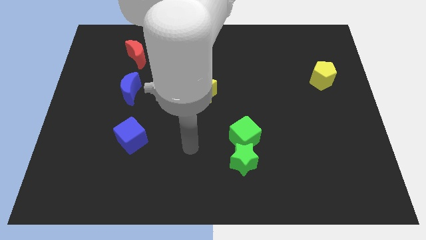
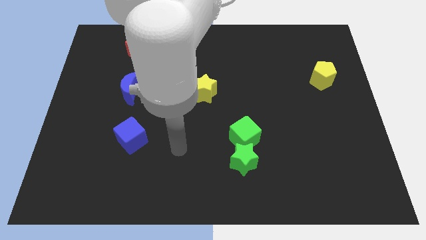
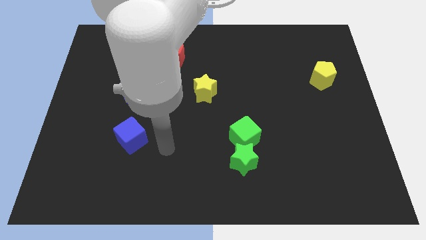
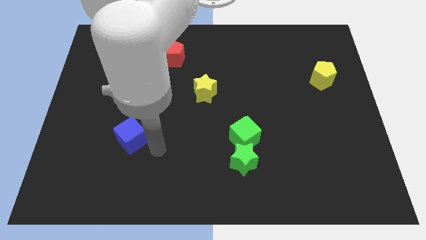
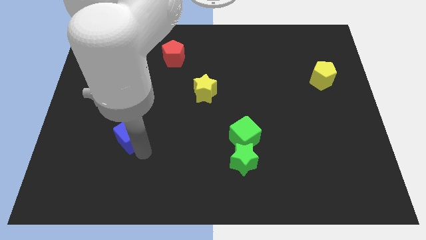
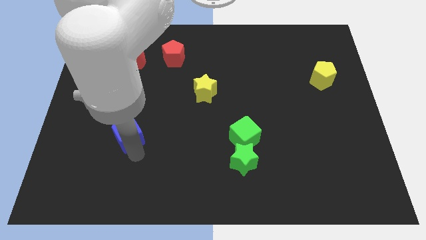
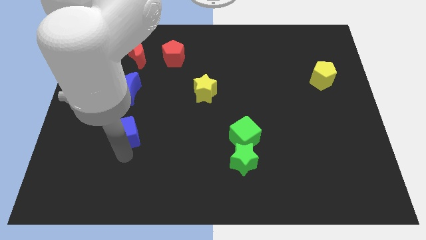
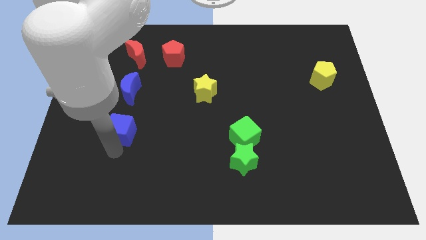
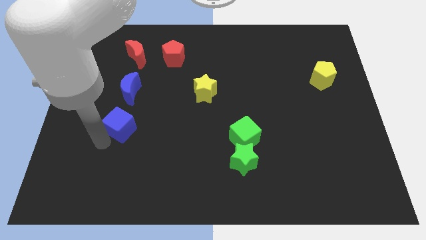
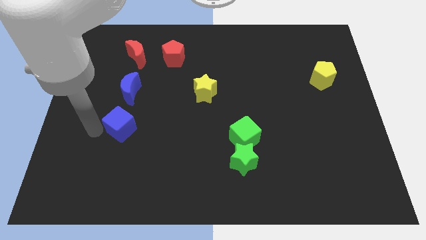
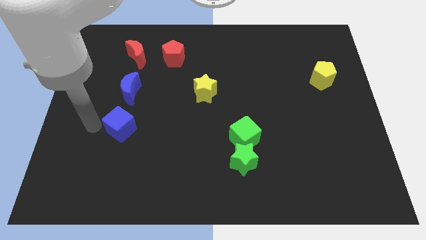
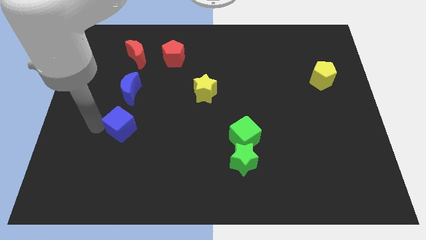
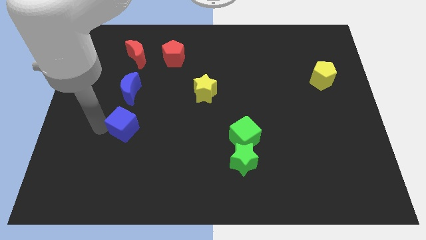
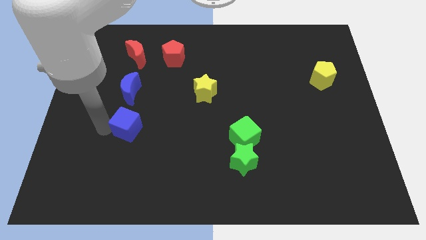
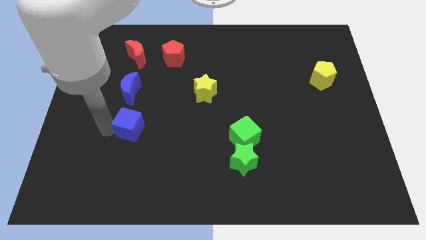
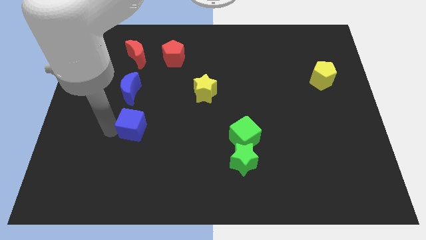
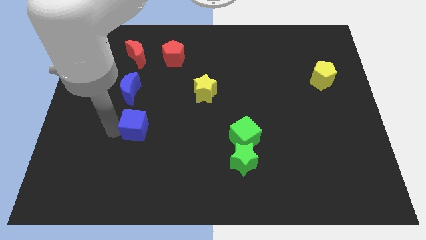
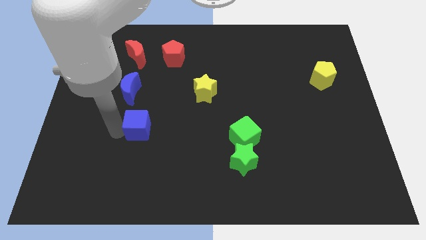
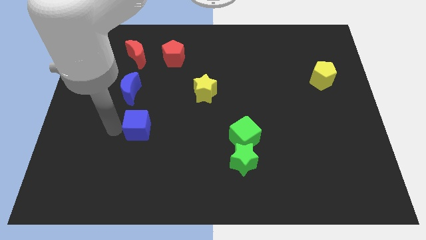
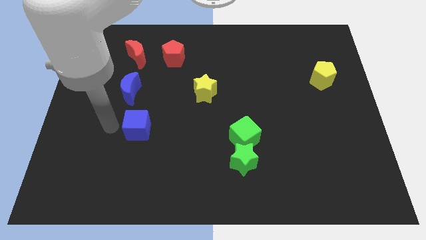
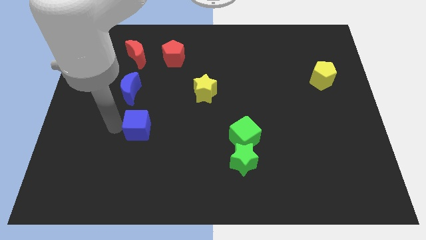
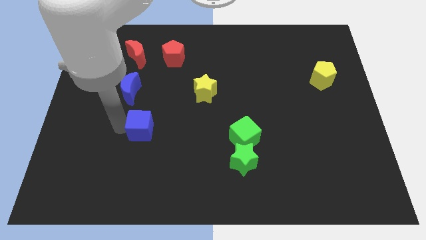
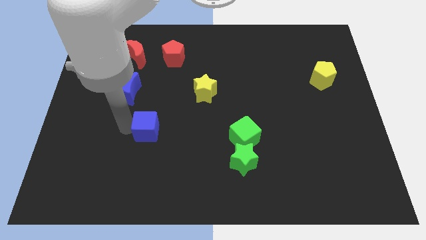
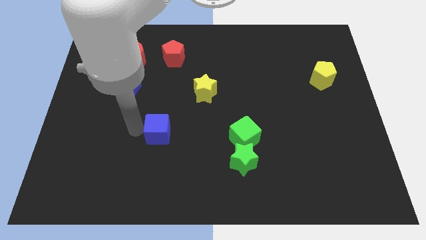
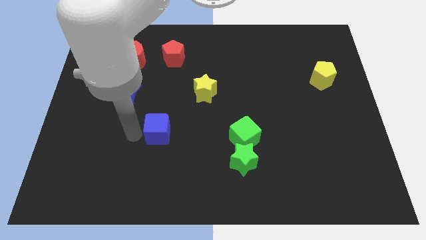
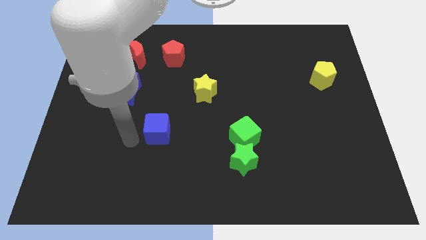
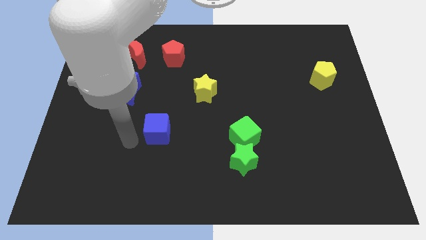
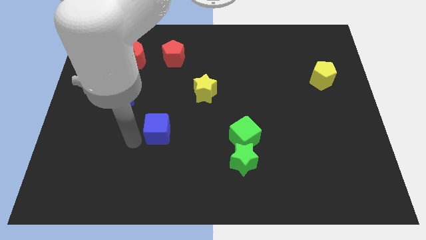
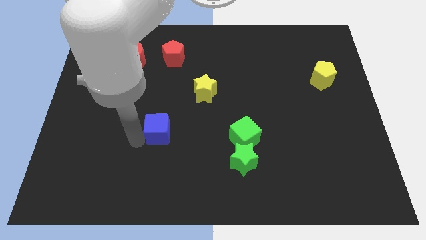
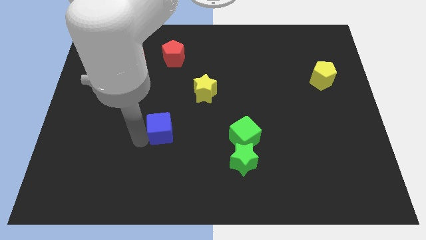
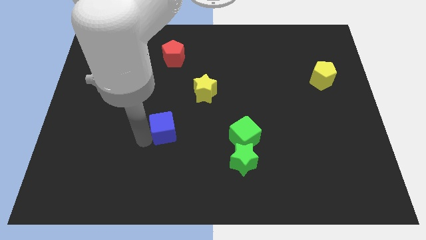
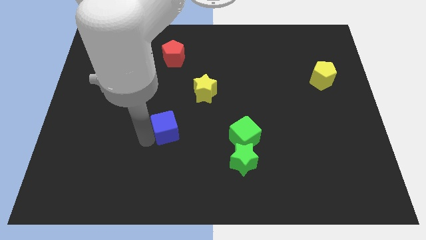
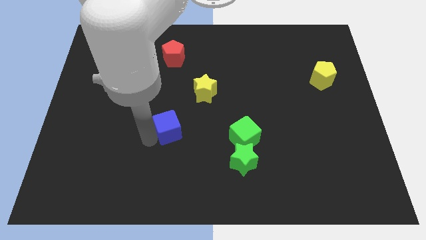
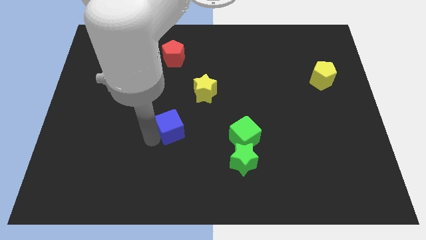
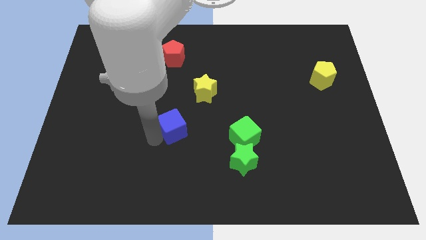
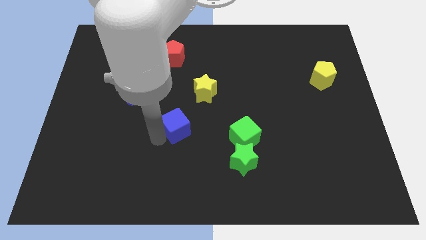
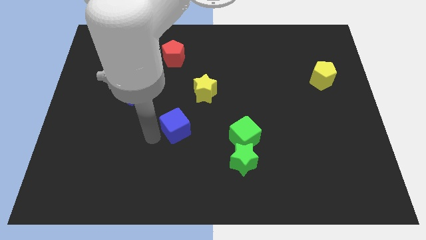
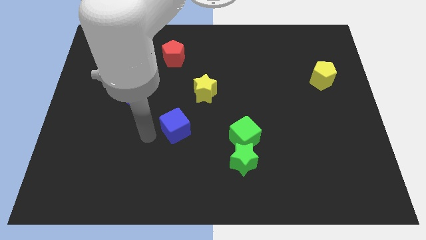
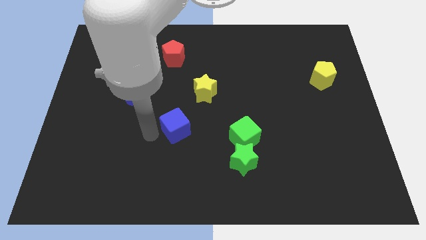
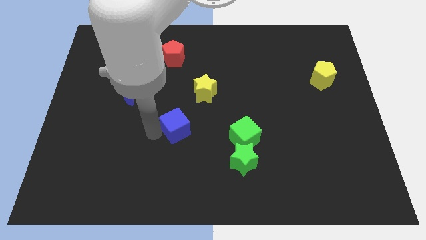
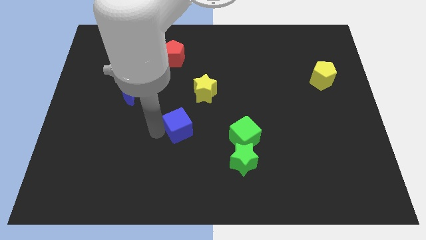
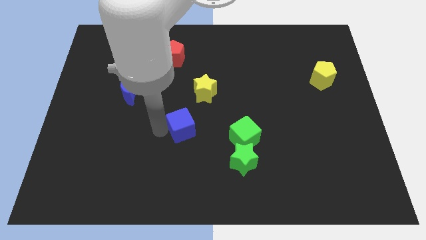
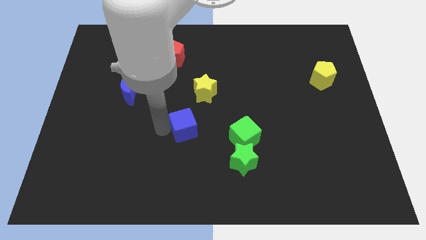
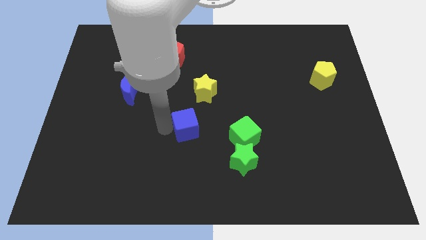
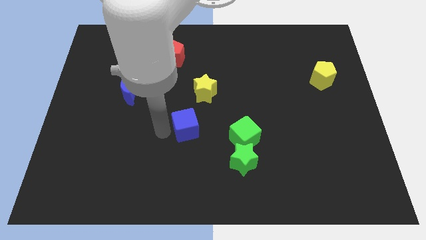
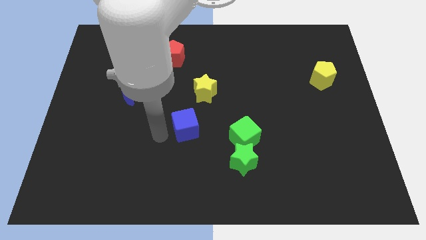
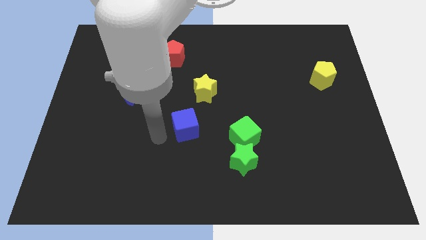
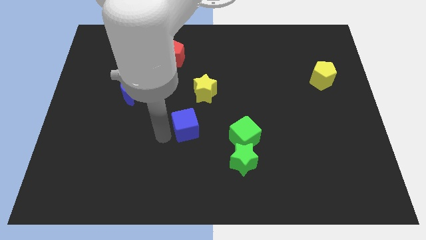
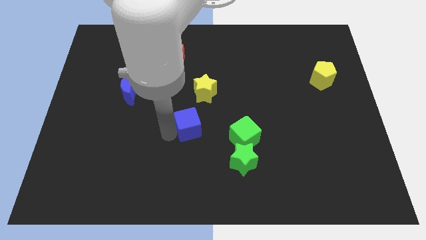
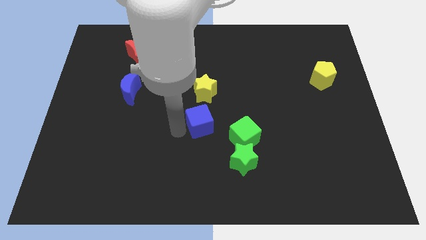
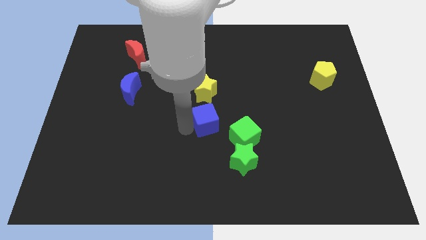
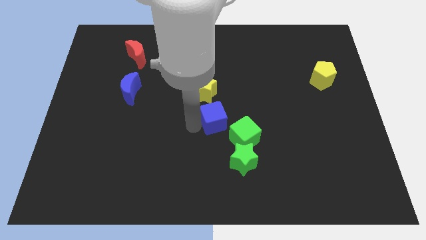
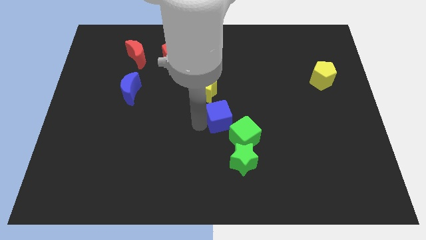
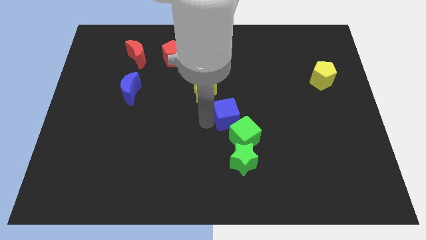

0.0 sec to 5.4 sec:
move the blue cube to the right

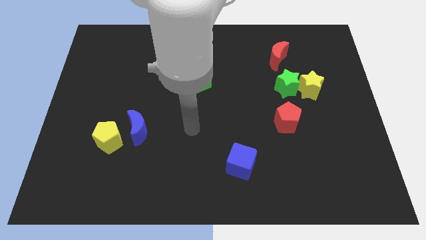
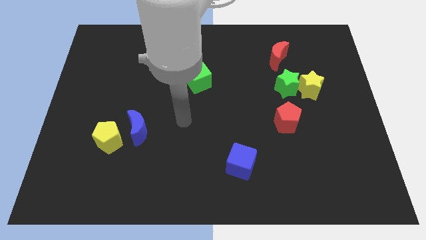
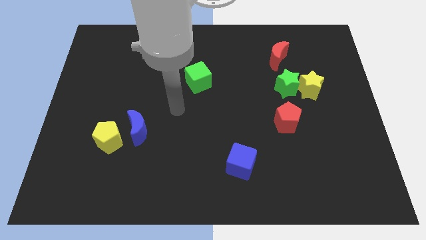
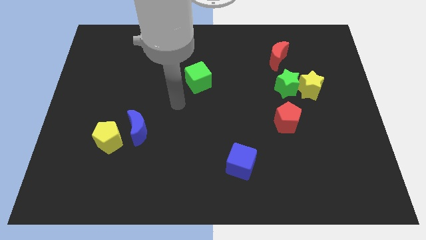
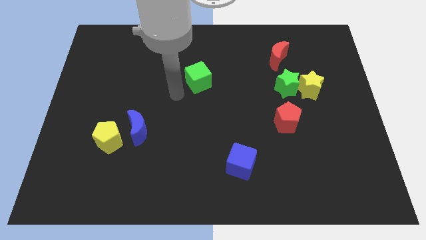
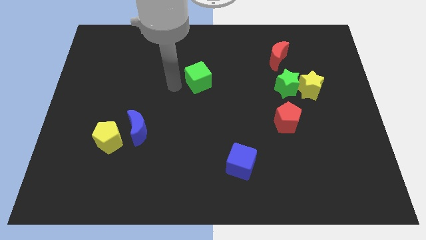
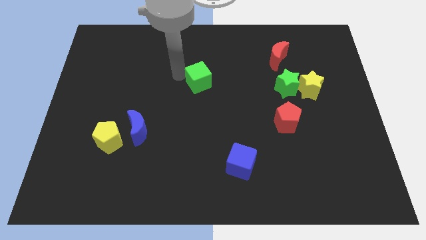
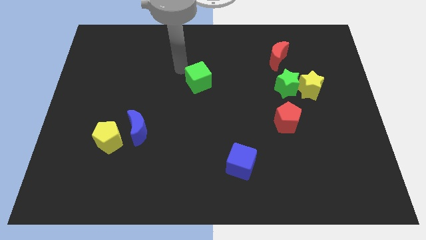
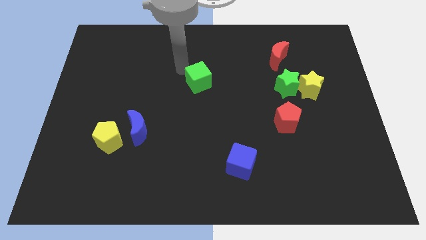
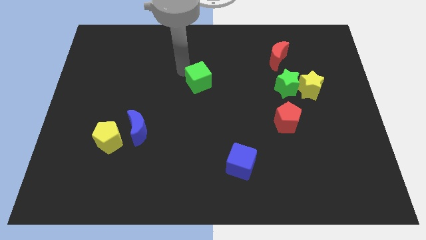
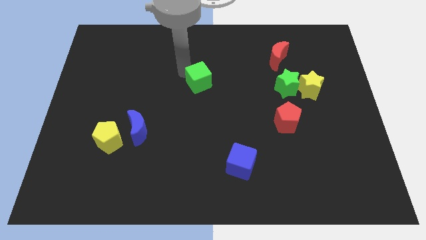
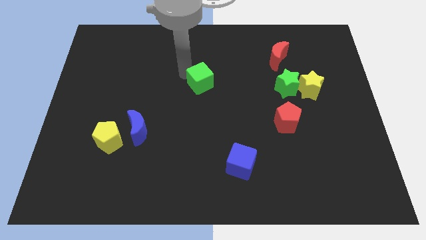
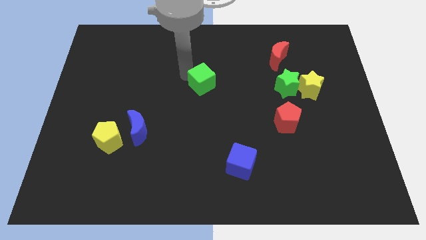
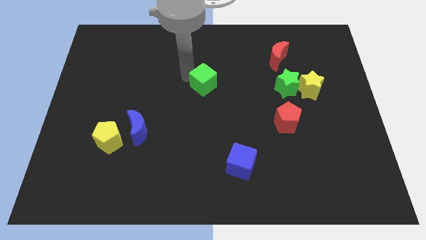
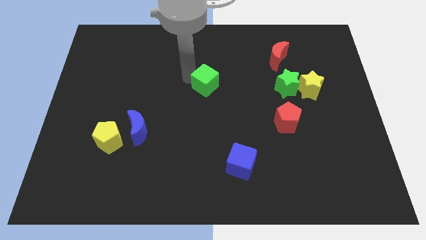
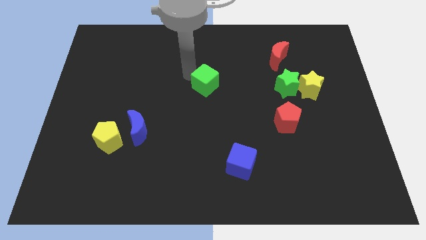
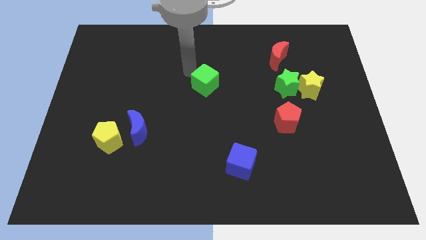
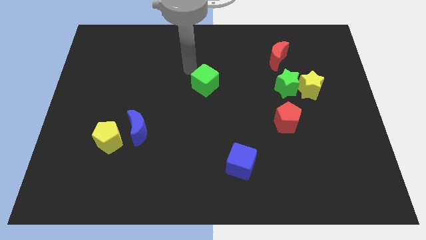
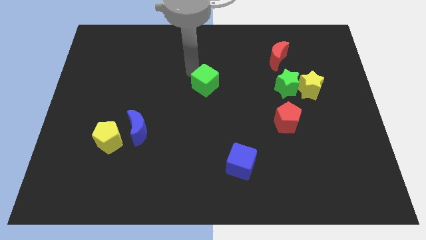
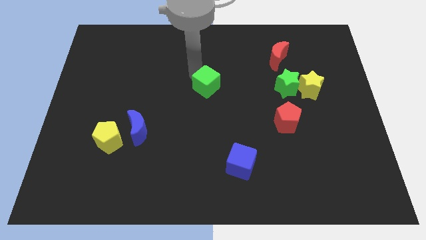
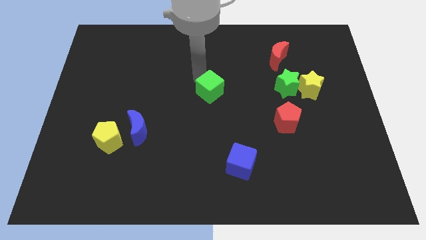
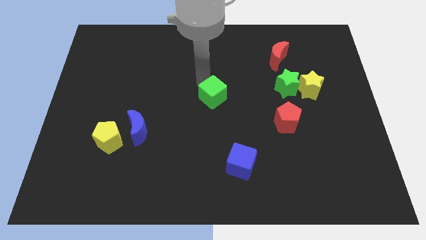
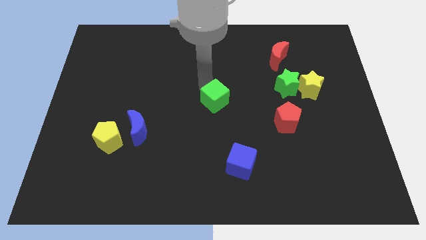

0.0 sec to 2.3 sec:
slightly move the green cube downwards and then right

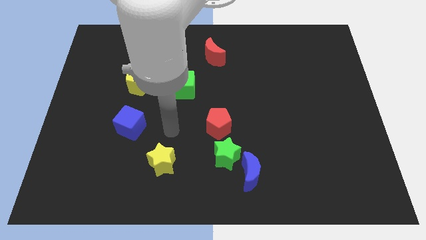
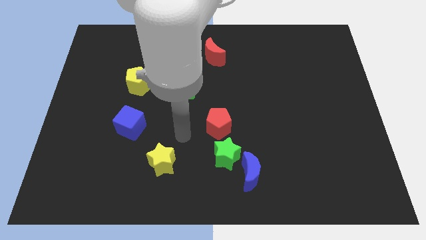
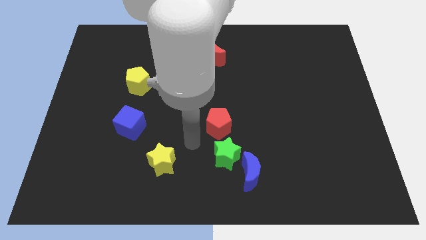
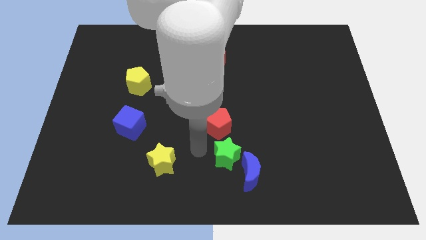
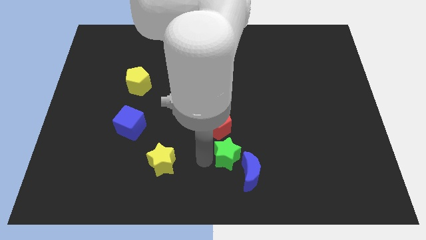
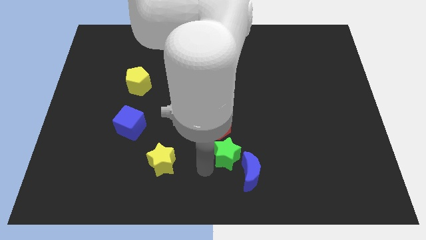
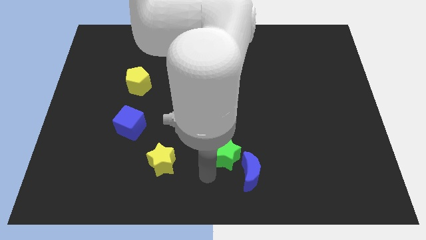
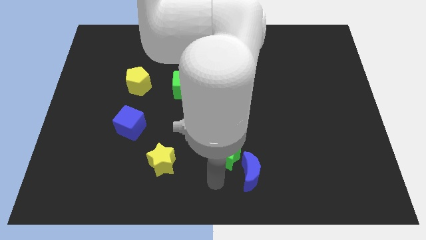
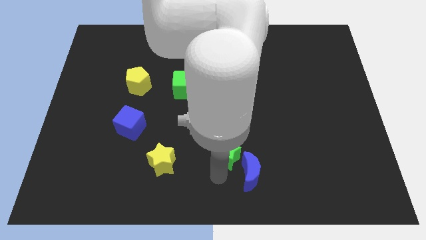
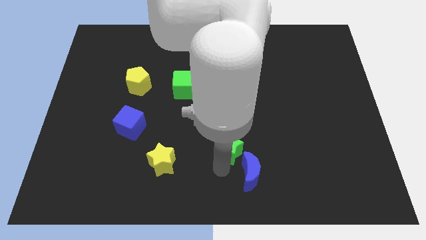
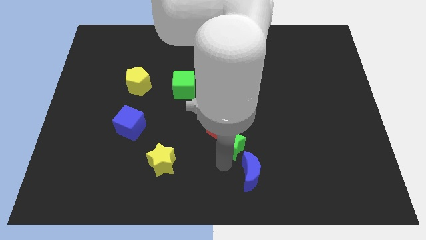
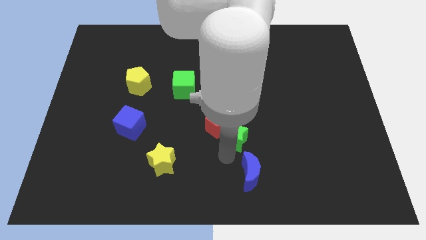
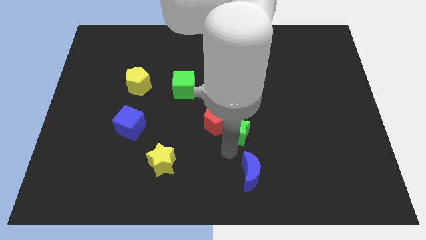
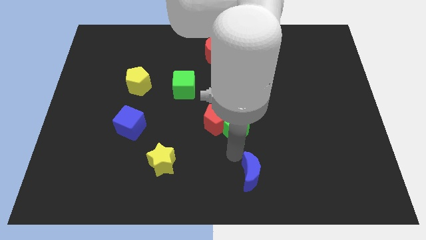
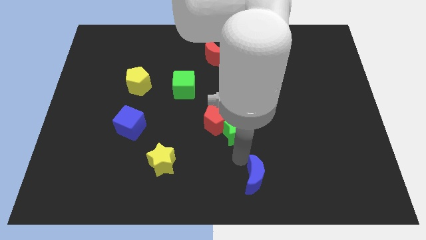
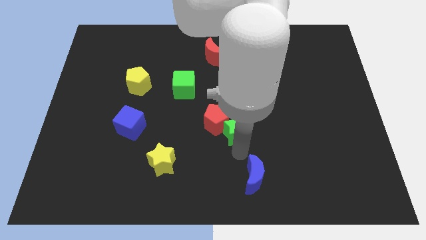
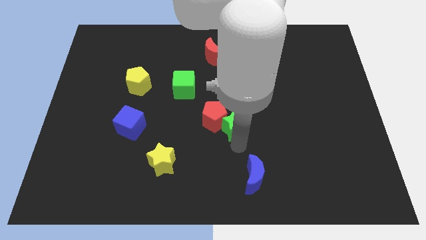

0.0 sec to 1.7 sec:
slightly push the green star upwards
